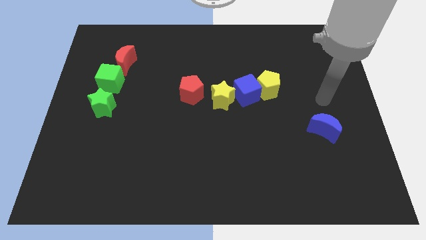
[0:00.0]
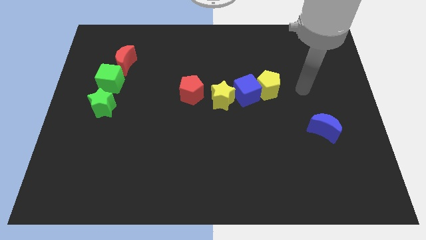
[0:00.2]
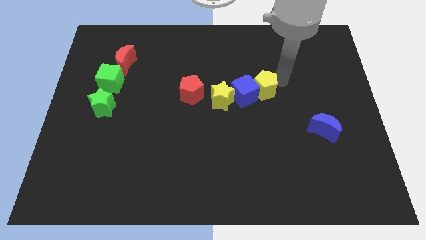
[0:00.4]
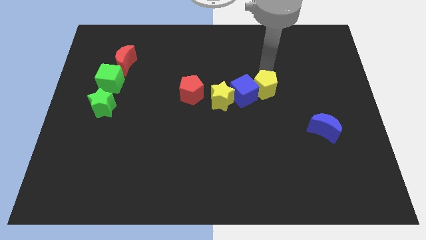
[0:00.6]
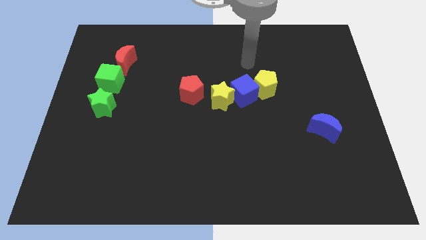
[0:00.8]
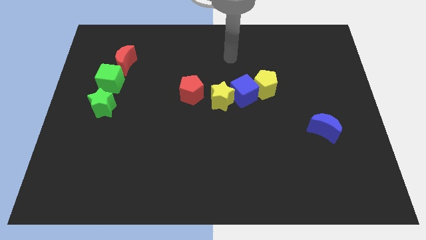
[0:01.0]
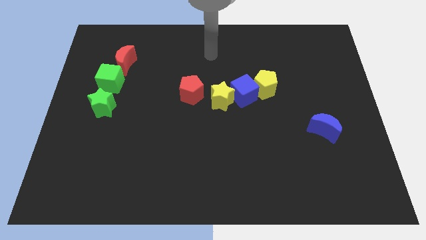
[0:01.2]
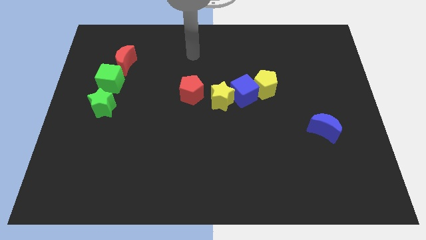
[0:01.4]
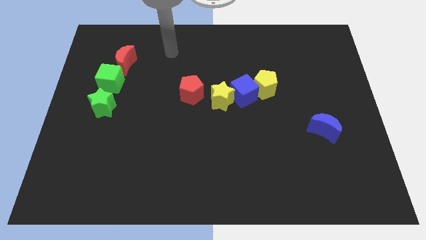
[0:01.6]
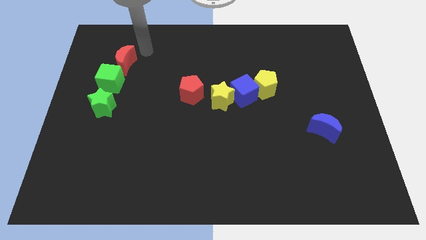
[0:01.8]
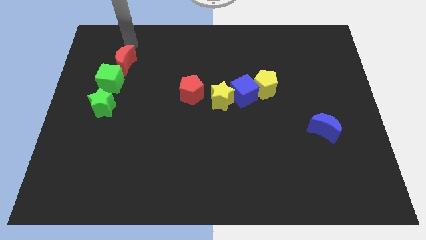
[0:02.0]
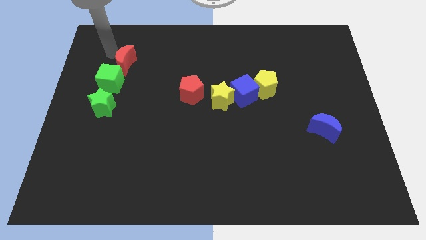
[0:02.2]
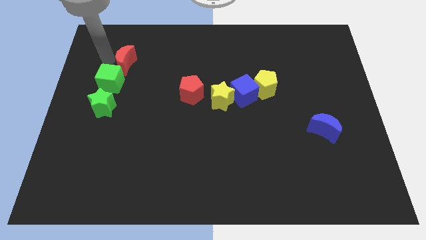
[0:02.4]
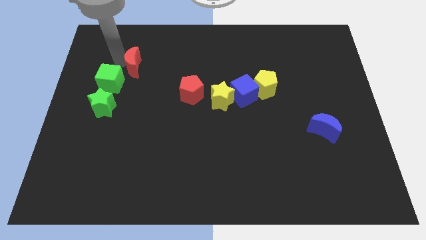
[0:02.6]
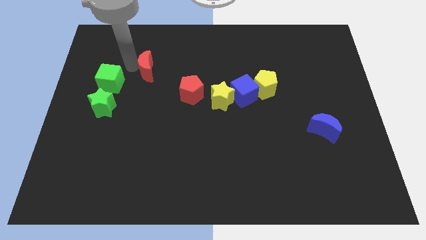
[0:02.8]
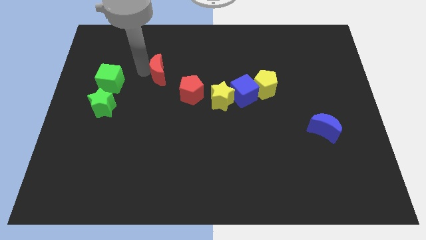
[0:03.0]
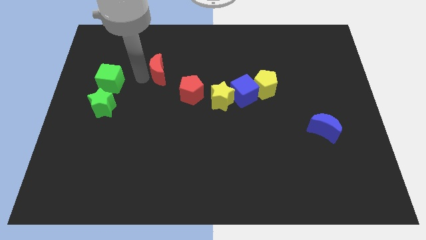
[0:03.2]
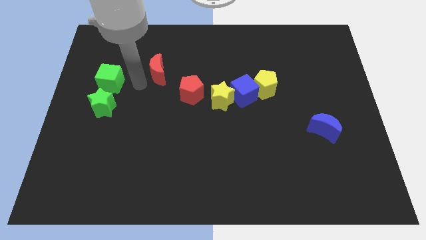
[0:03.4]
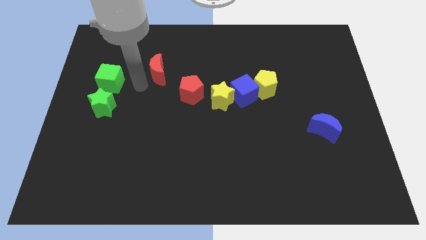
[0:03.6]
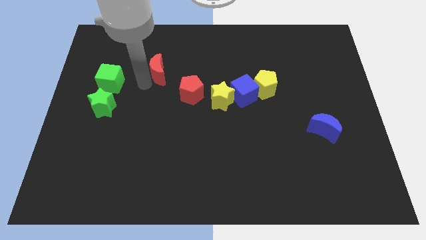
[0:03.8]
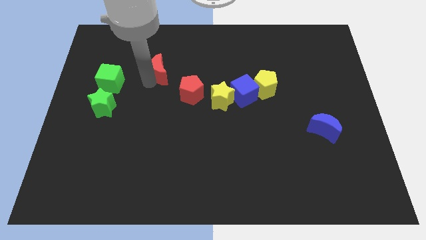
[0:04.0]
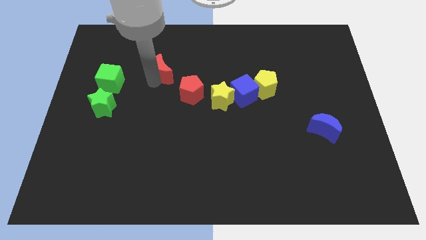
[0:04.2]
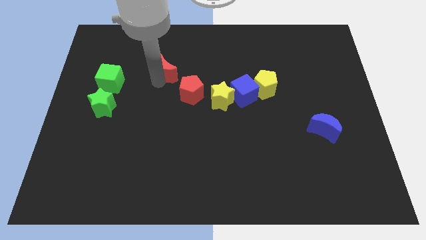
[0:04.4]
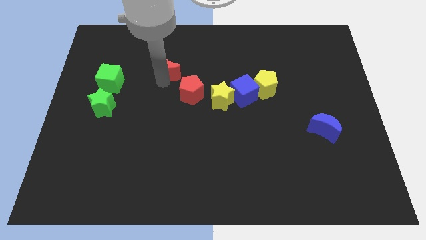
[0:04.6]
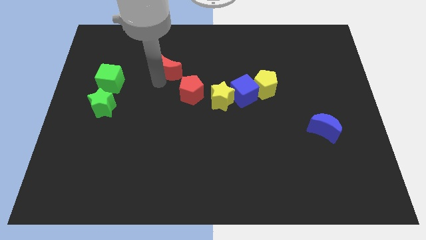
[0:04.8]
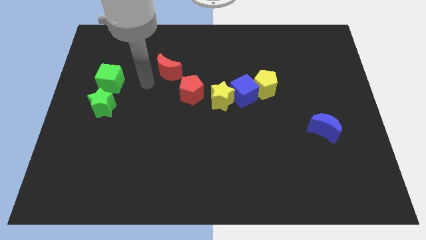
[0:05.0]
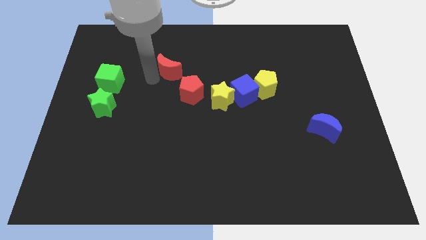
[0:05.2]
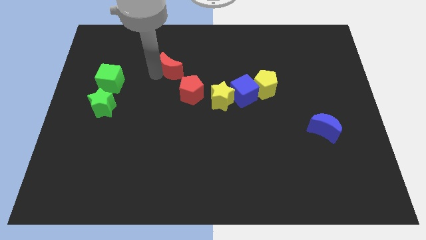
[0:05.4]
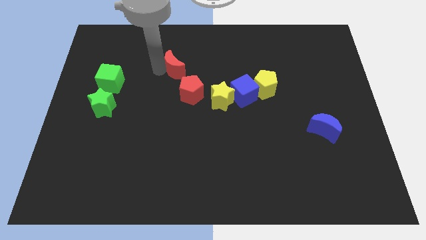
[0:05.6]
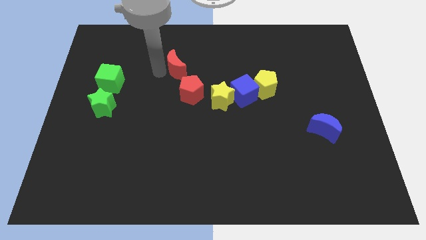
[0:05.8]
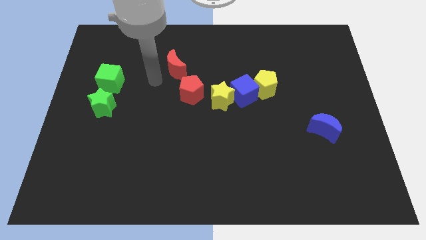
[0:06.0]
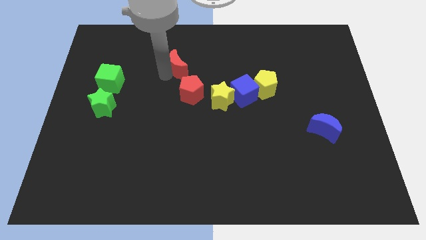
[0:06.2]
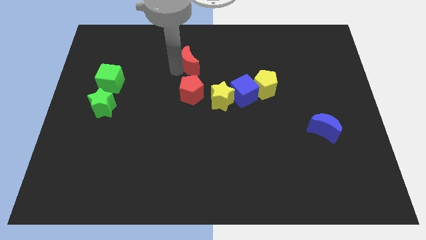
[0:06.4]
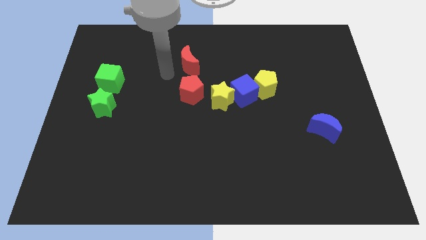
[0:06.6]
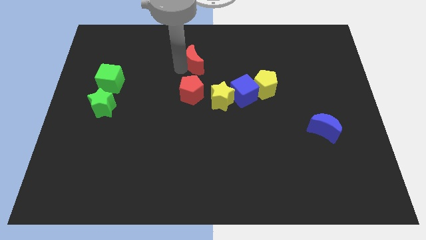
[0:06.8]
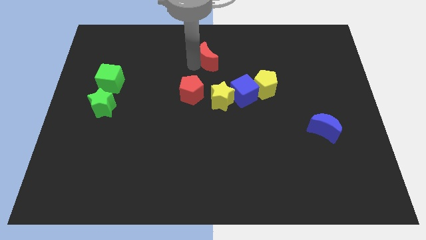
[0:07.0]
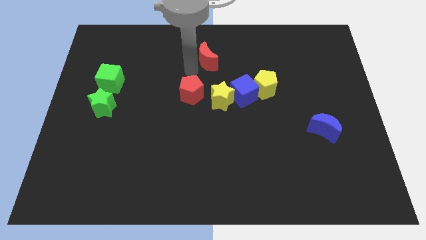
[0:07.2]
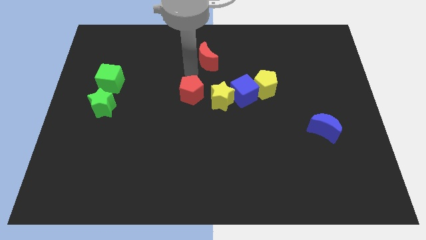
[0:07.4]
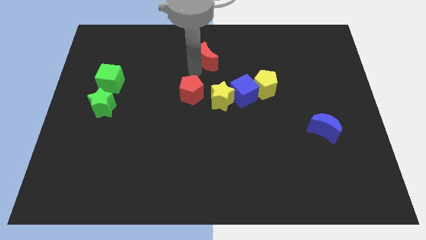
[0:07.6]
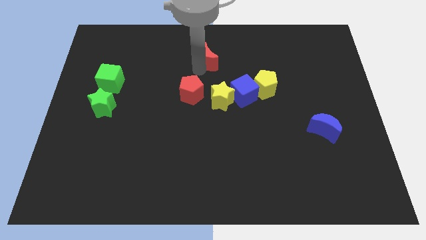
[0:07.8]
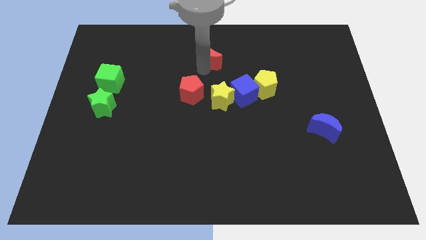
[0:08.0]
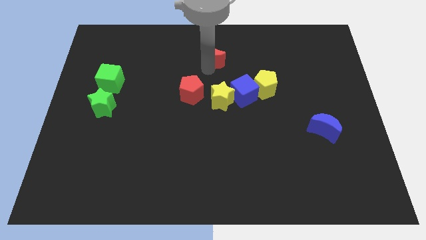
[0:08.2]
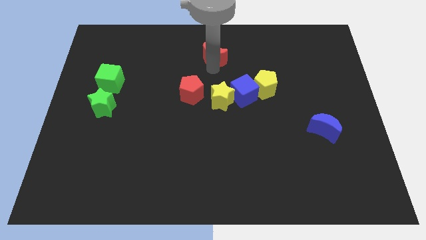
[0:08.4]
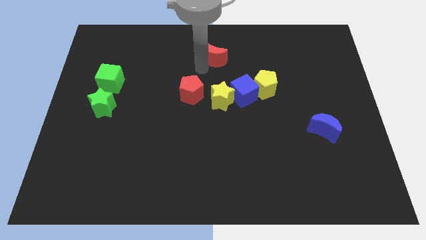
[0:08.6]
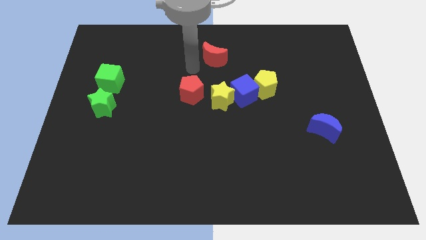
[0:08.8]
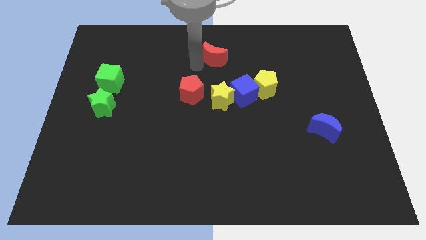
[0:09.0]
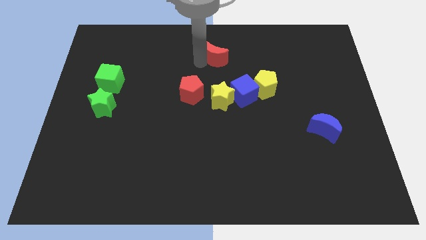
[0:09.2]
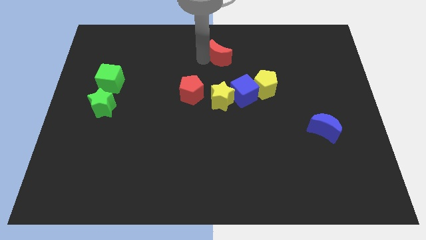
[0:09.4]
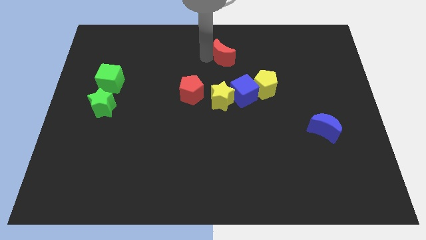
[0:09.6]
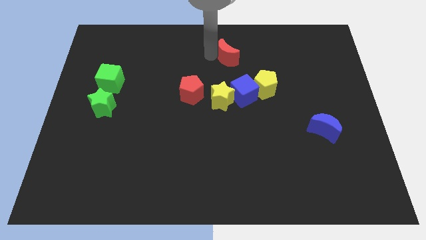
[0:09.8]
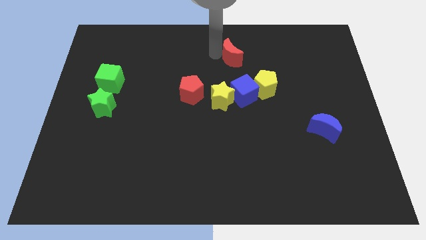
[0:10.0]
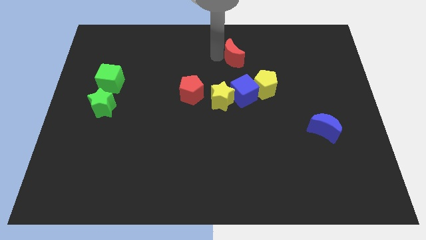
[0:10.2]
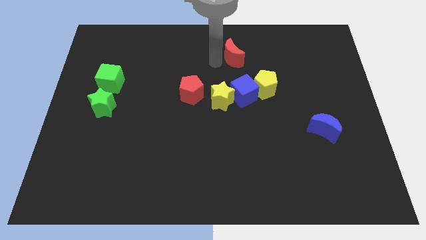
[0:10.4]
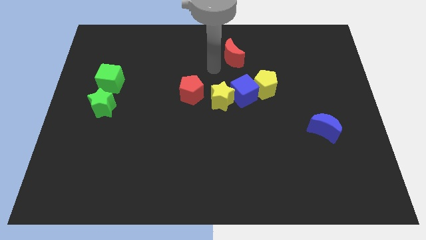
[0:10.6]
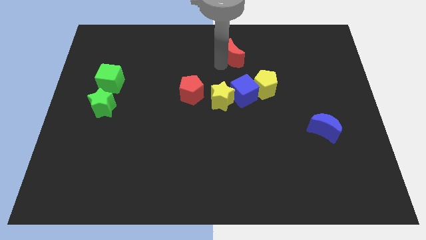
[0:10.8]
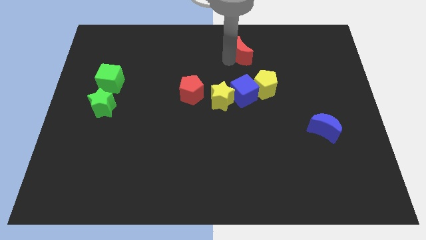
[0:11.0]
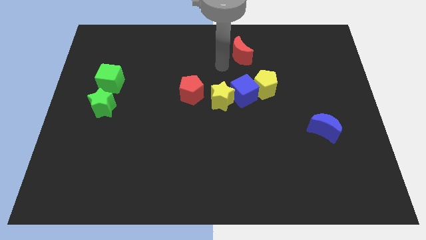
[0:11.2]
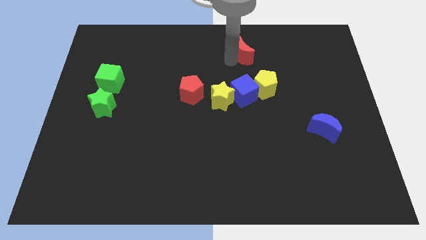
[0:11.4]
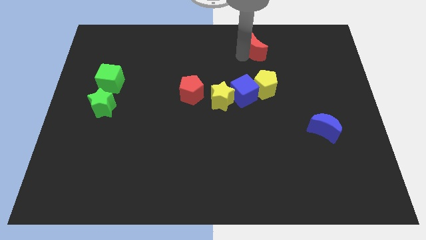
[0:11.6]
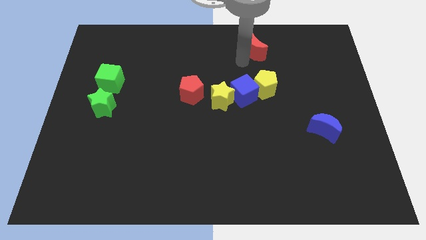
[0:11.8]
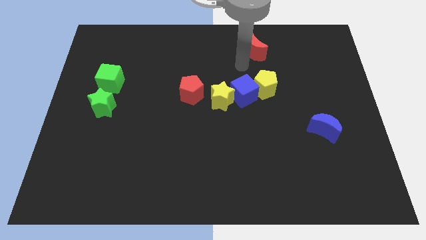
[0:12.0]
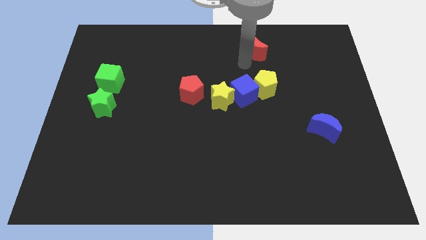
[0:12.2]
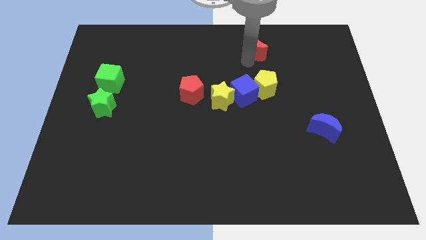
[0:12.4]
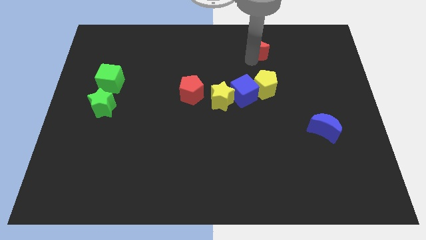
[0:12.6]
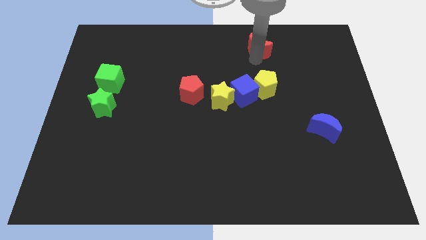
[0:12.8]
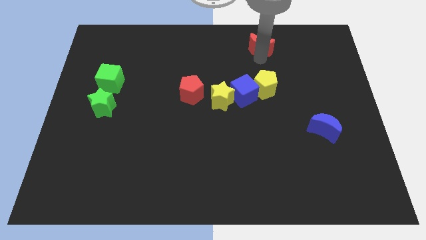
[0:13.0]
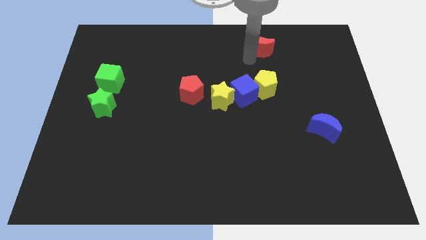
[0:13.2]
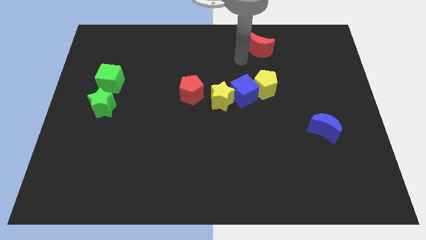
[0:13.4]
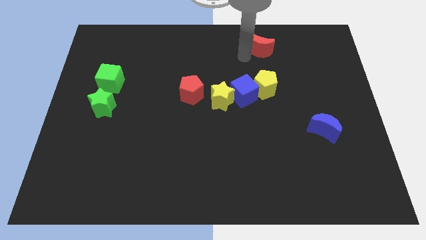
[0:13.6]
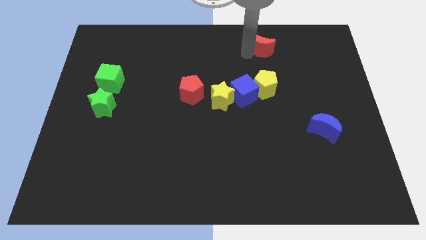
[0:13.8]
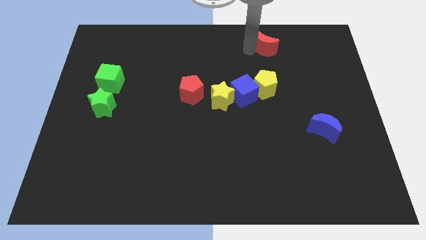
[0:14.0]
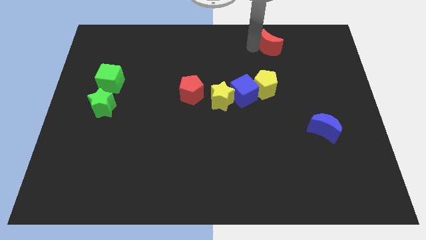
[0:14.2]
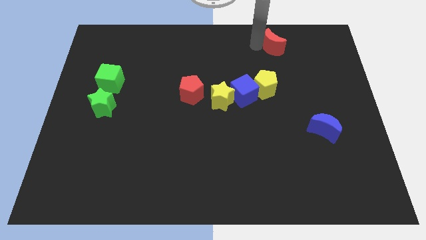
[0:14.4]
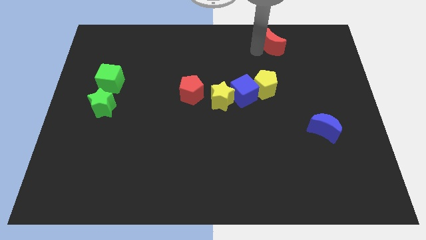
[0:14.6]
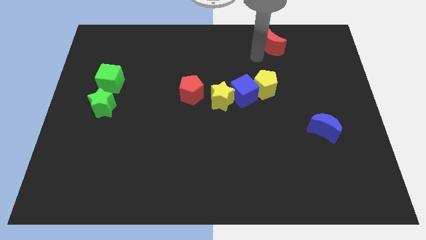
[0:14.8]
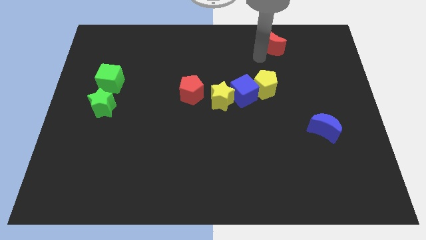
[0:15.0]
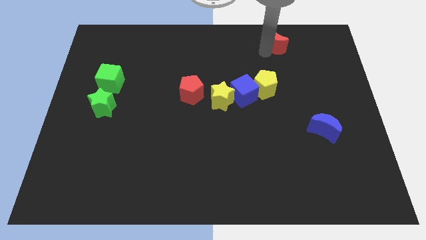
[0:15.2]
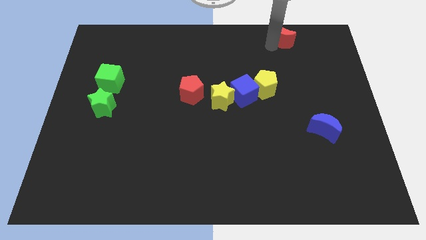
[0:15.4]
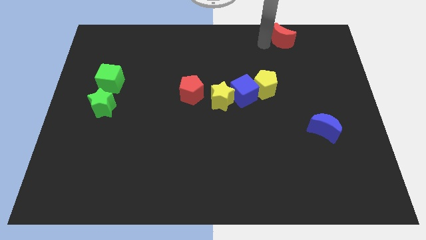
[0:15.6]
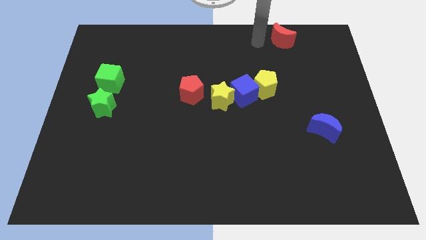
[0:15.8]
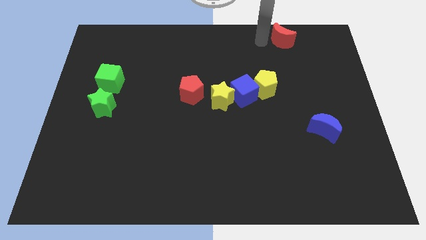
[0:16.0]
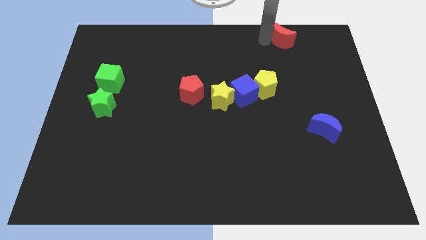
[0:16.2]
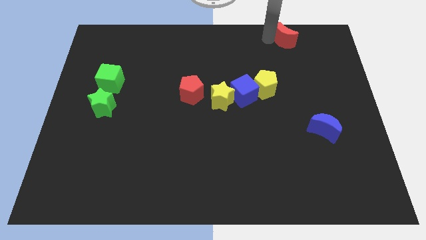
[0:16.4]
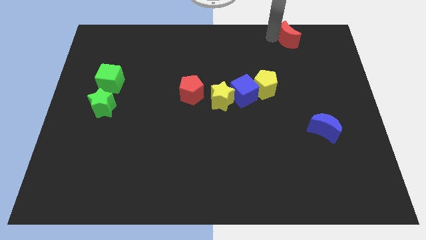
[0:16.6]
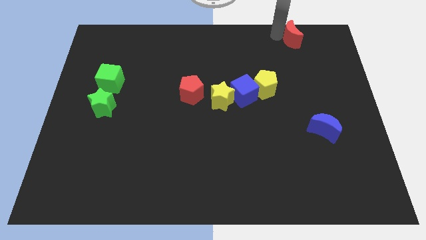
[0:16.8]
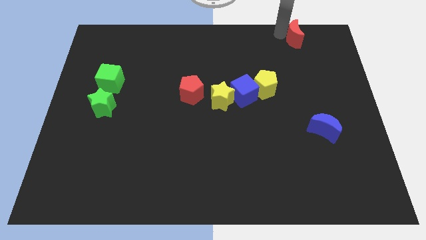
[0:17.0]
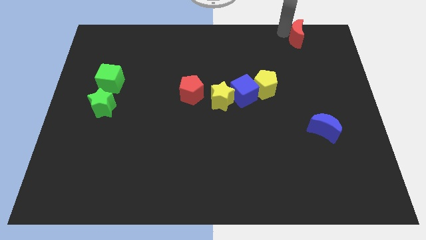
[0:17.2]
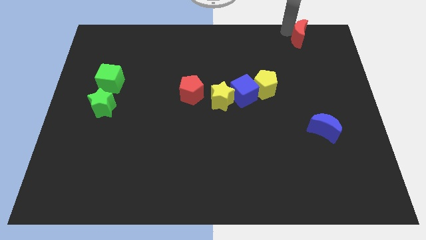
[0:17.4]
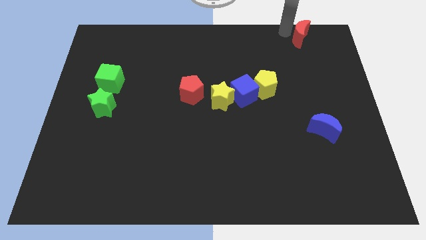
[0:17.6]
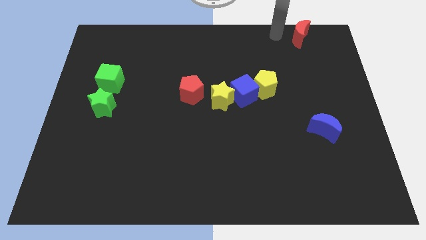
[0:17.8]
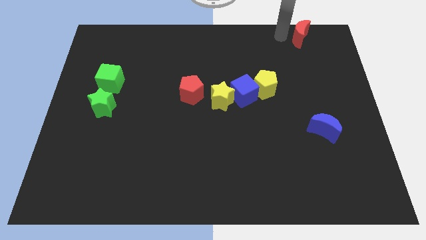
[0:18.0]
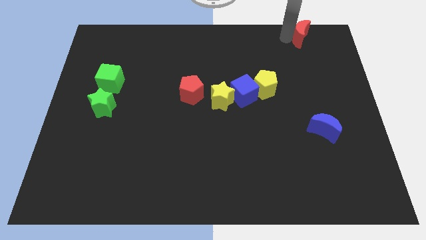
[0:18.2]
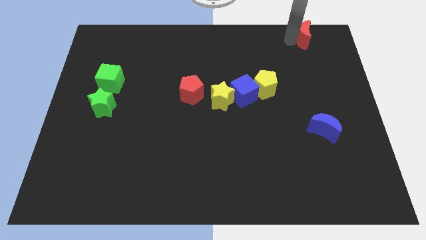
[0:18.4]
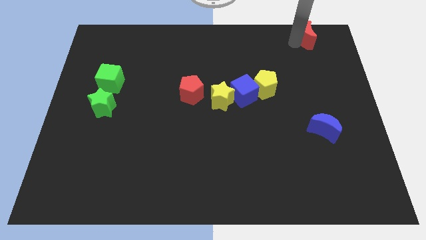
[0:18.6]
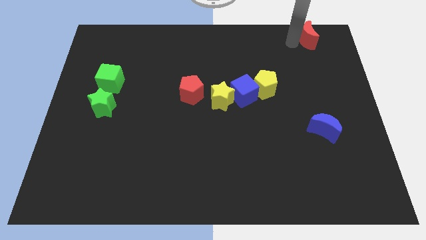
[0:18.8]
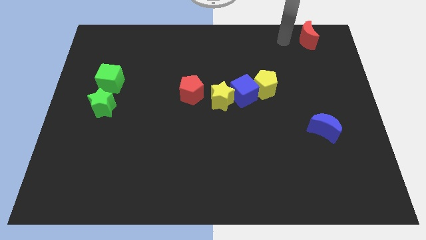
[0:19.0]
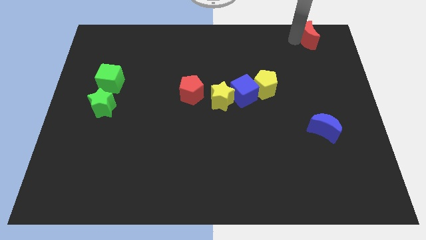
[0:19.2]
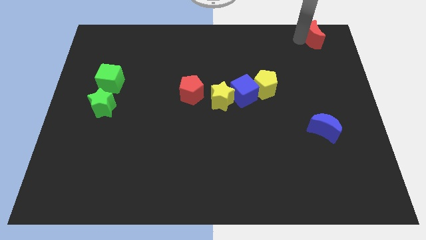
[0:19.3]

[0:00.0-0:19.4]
push the red moon to the top right
